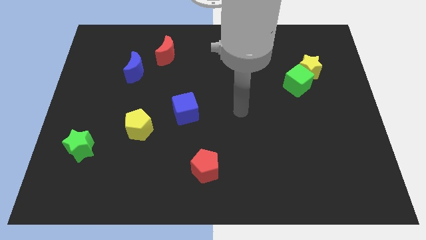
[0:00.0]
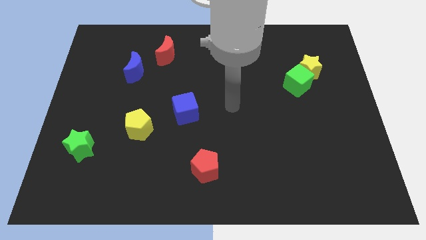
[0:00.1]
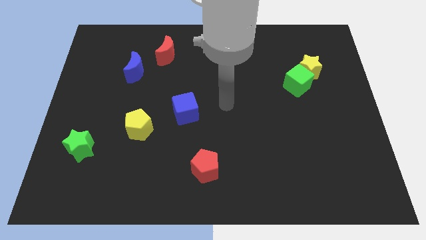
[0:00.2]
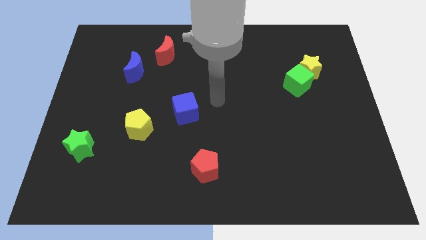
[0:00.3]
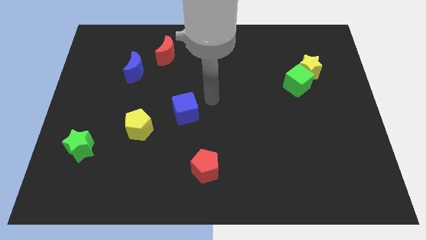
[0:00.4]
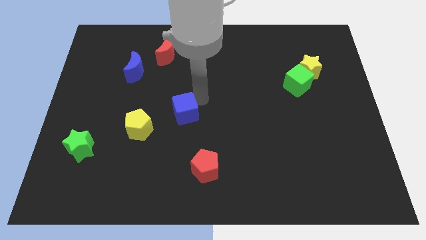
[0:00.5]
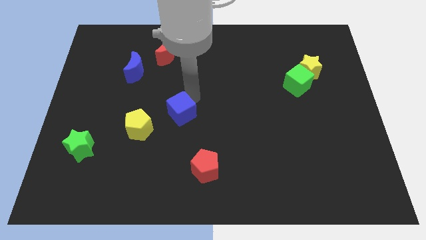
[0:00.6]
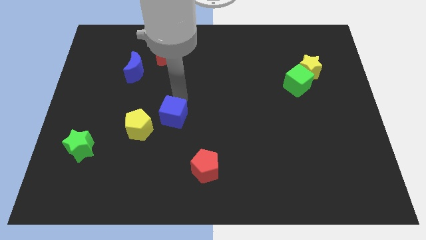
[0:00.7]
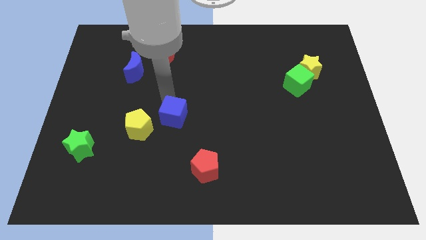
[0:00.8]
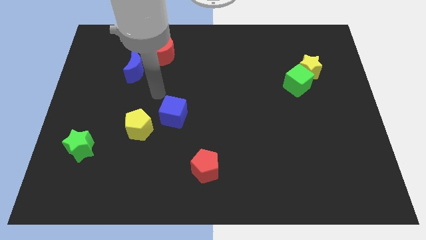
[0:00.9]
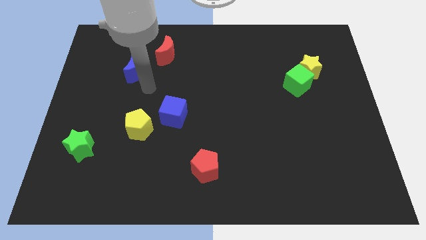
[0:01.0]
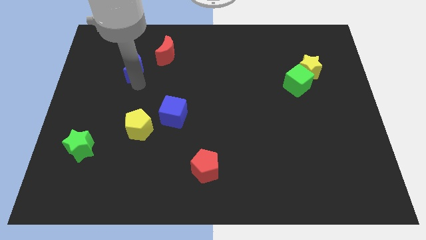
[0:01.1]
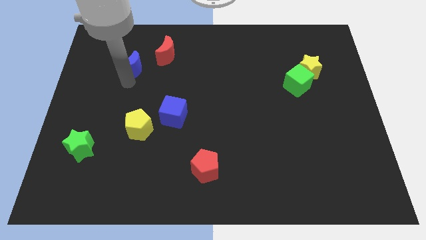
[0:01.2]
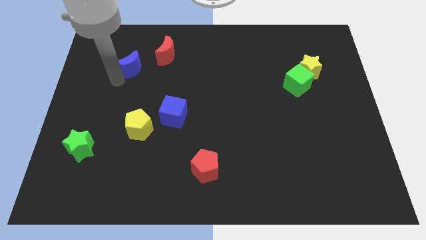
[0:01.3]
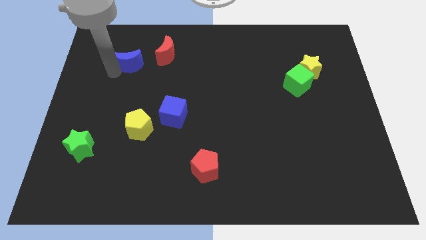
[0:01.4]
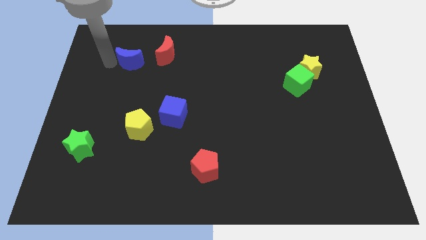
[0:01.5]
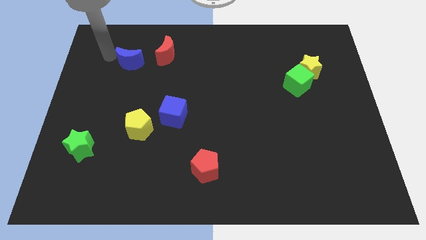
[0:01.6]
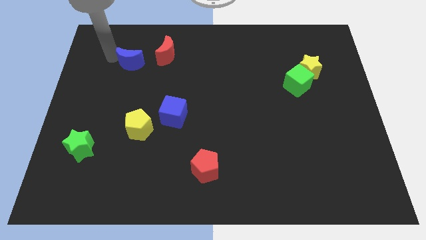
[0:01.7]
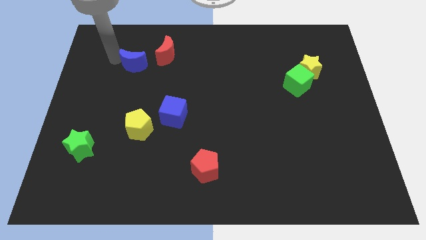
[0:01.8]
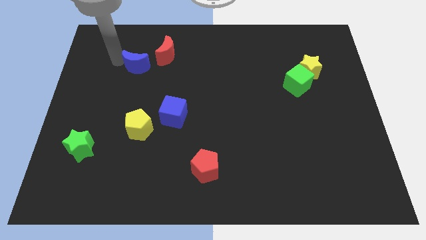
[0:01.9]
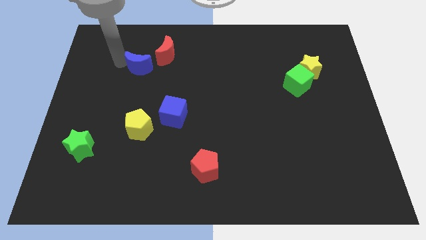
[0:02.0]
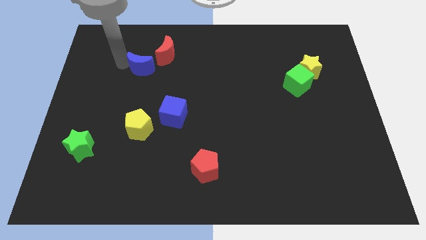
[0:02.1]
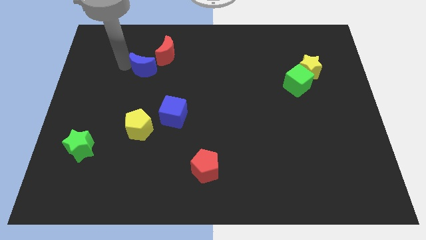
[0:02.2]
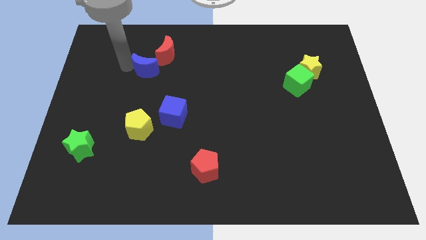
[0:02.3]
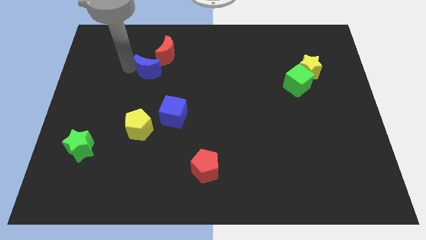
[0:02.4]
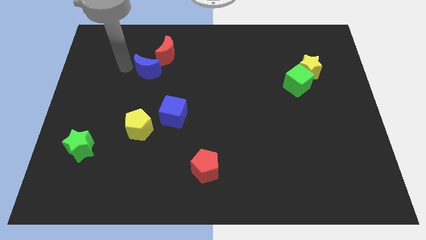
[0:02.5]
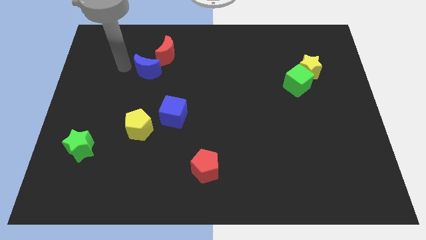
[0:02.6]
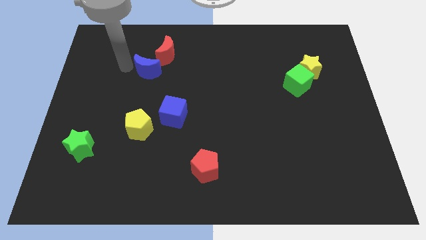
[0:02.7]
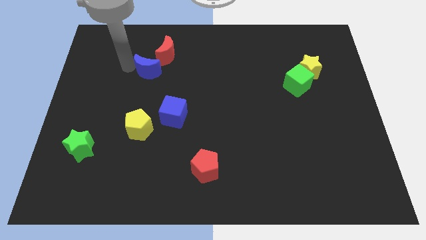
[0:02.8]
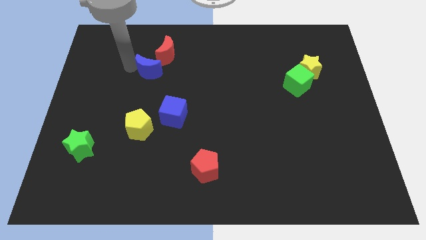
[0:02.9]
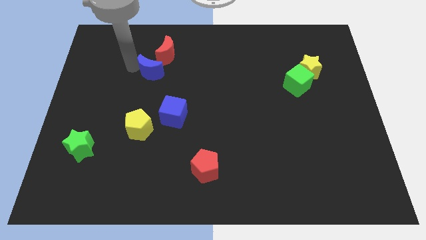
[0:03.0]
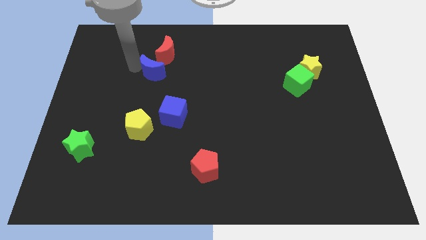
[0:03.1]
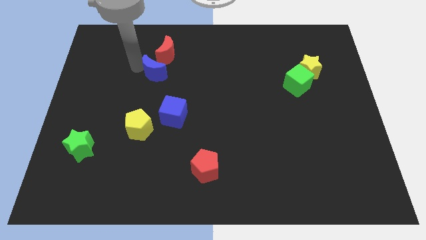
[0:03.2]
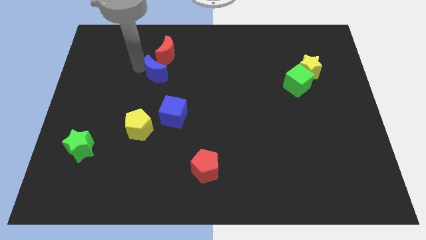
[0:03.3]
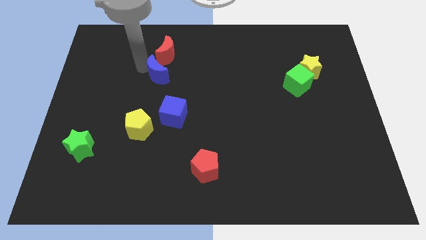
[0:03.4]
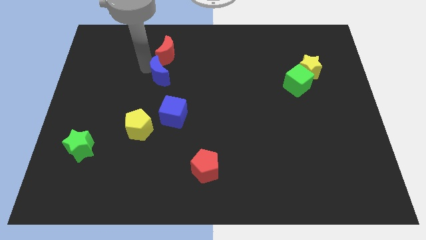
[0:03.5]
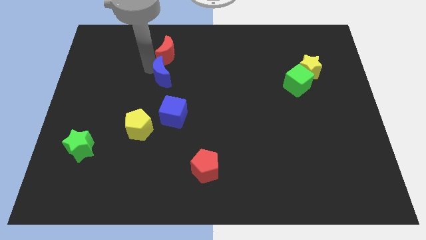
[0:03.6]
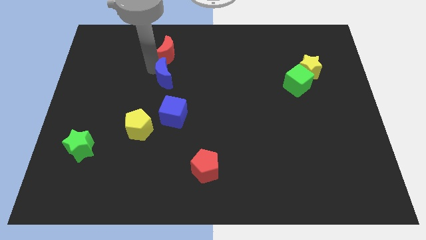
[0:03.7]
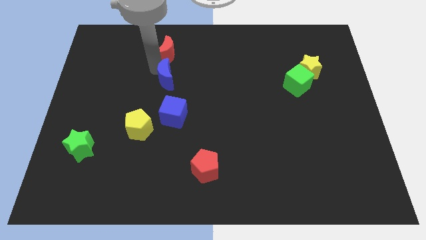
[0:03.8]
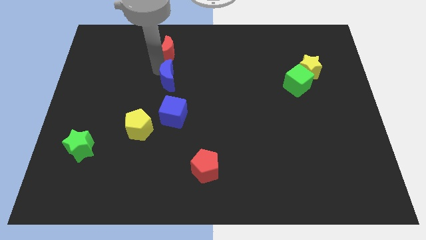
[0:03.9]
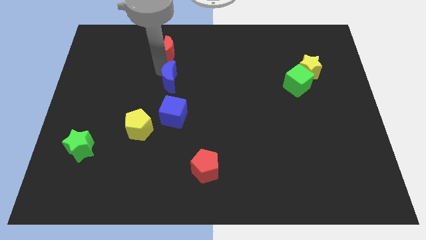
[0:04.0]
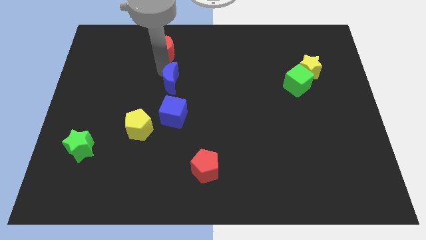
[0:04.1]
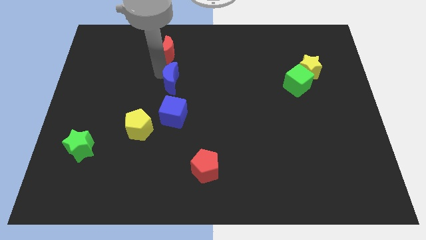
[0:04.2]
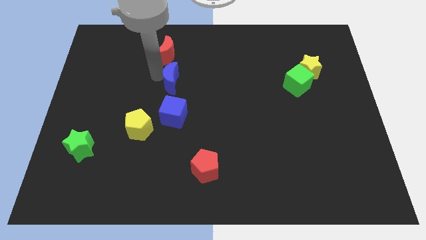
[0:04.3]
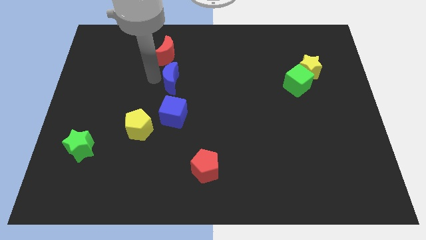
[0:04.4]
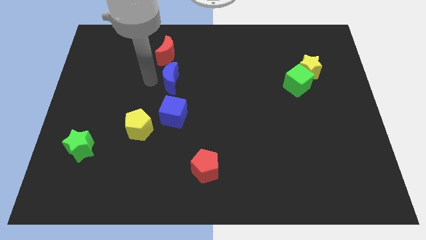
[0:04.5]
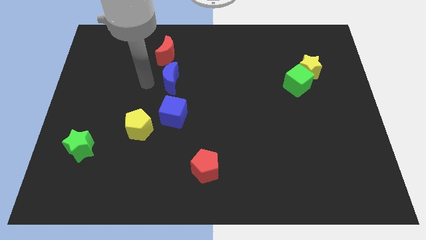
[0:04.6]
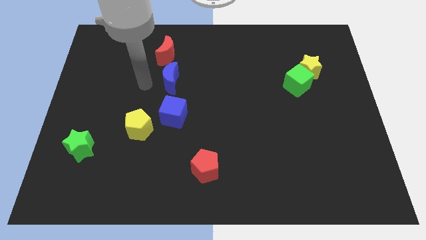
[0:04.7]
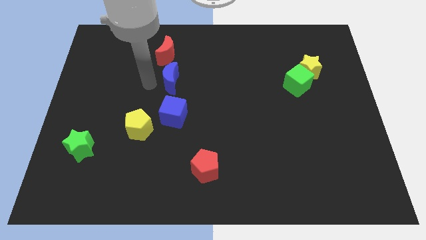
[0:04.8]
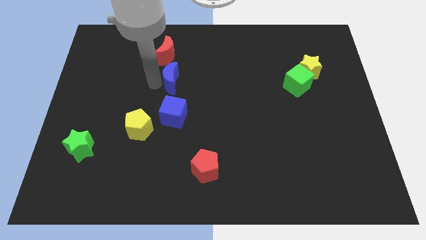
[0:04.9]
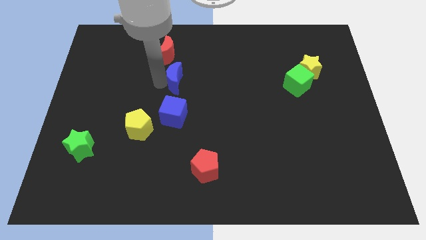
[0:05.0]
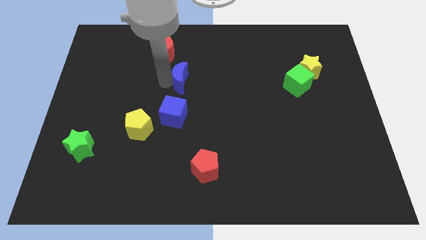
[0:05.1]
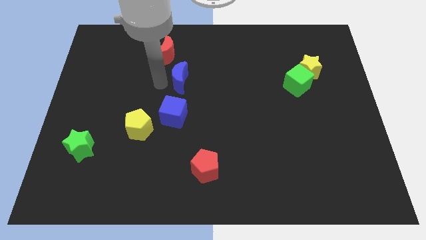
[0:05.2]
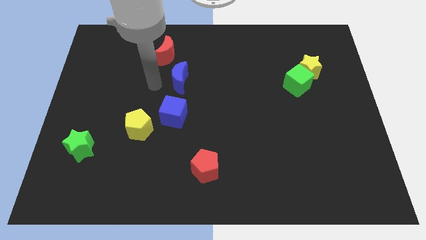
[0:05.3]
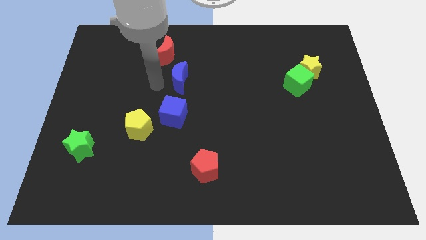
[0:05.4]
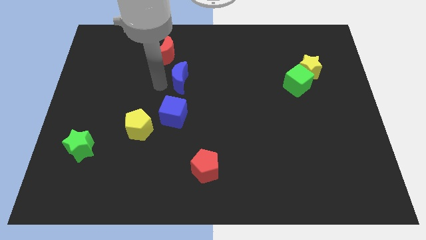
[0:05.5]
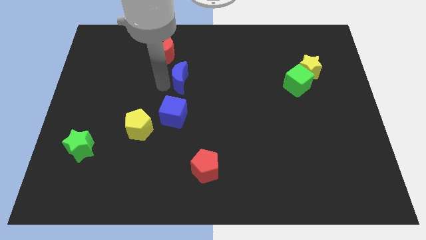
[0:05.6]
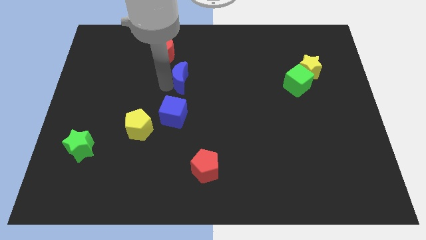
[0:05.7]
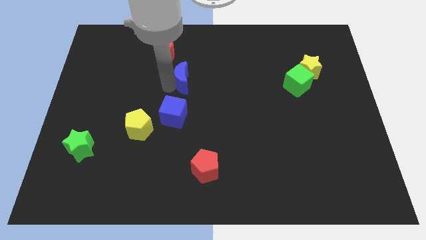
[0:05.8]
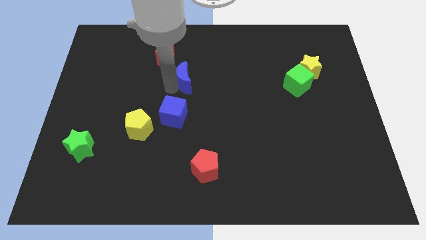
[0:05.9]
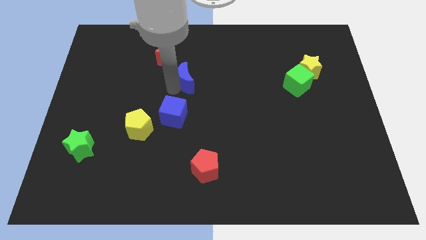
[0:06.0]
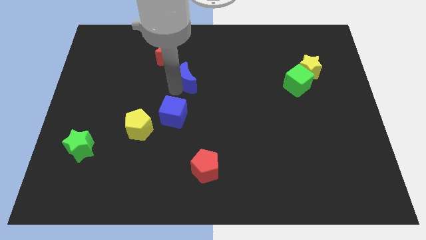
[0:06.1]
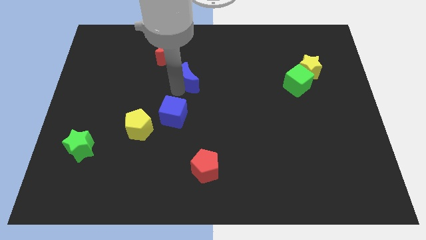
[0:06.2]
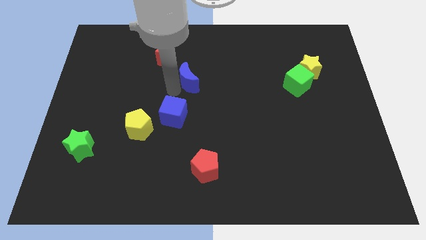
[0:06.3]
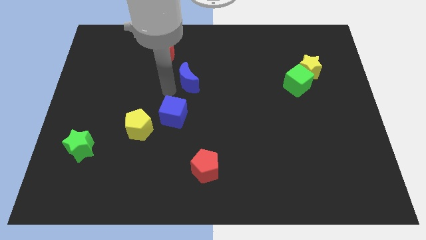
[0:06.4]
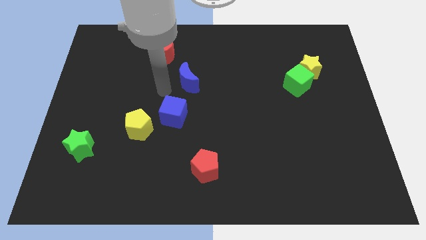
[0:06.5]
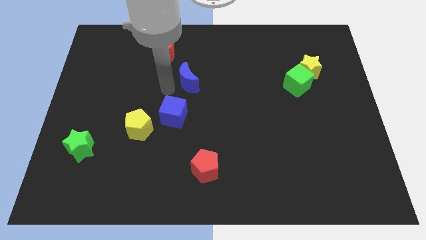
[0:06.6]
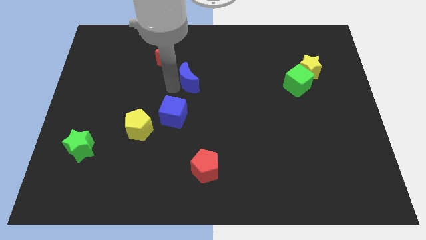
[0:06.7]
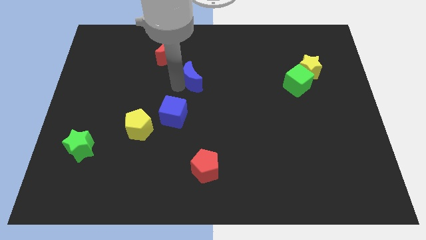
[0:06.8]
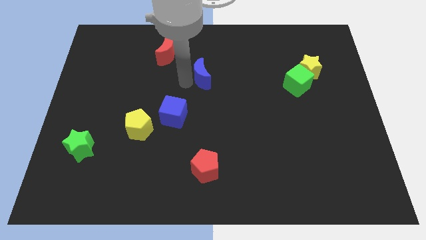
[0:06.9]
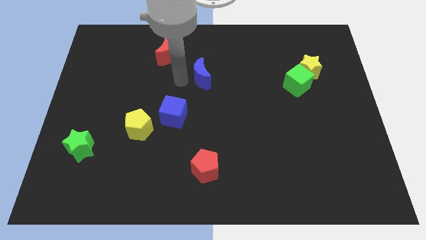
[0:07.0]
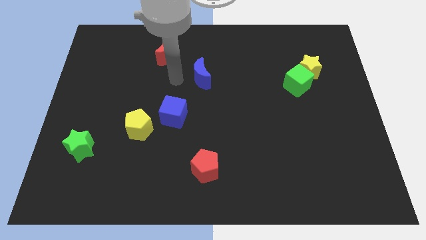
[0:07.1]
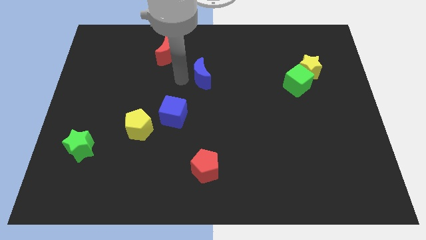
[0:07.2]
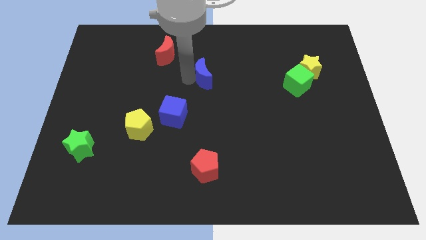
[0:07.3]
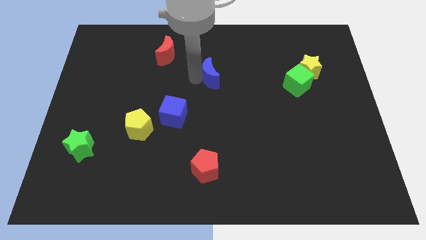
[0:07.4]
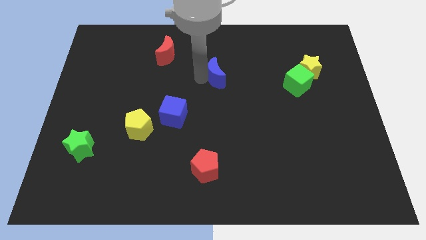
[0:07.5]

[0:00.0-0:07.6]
push the blue moon right

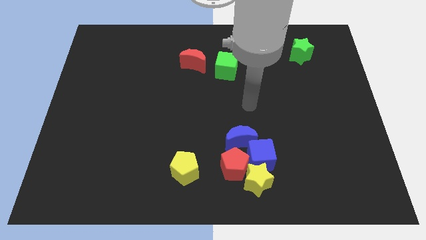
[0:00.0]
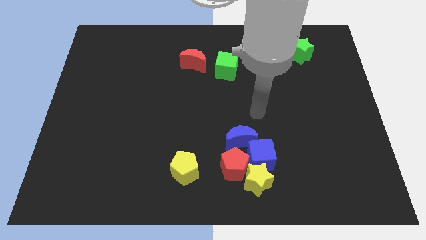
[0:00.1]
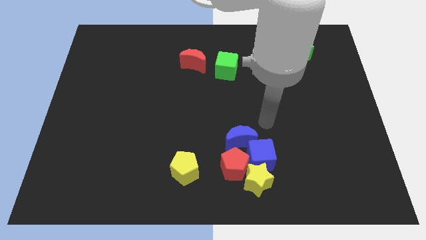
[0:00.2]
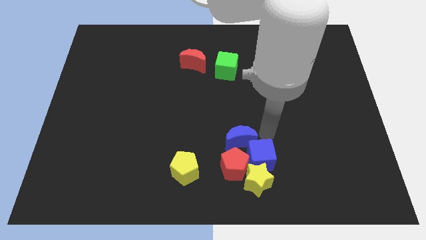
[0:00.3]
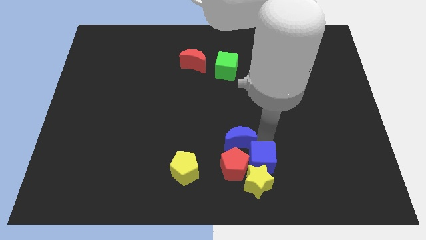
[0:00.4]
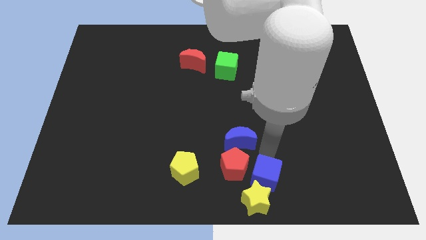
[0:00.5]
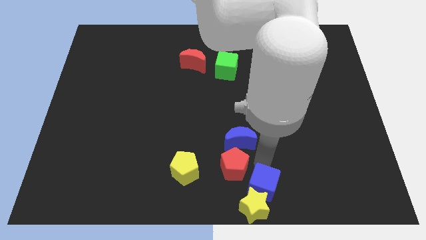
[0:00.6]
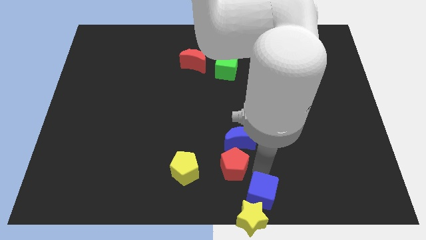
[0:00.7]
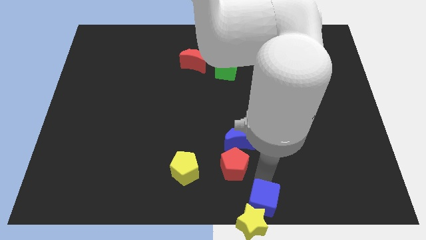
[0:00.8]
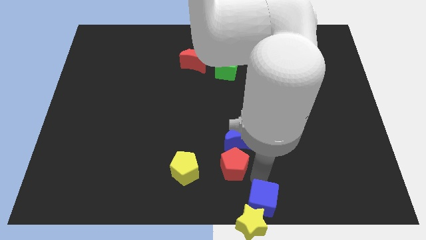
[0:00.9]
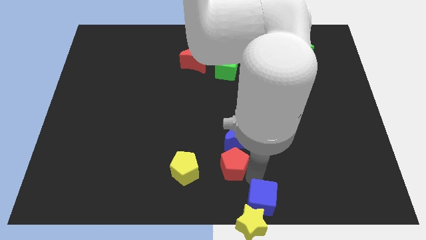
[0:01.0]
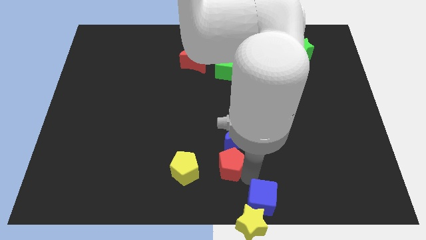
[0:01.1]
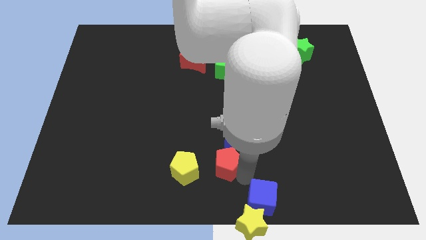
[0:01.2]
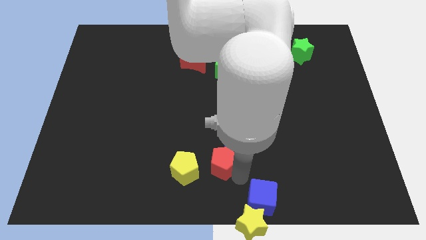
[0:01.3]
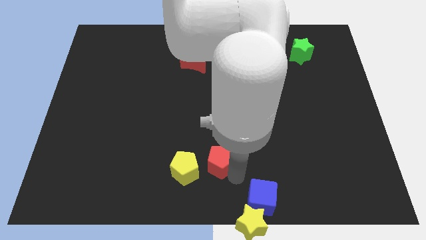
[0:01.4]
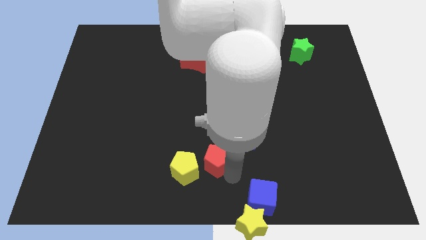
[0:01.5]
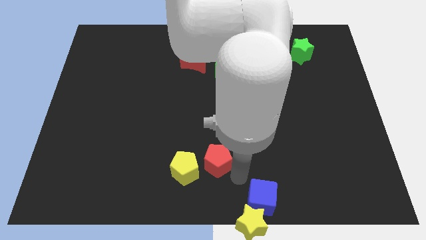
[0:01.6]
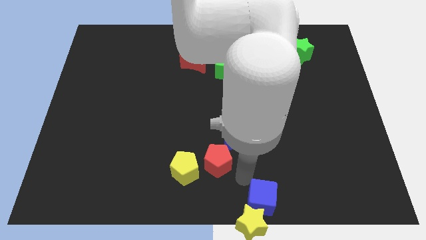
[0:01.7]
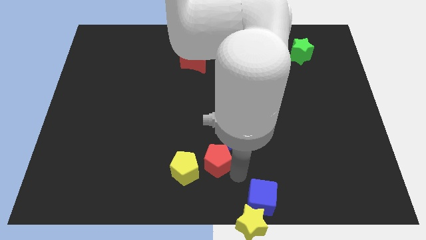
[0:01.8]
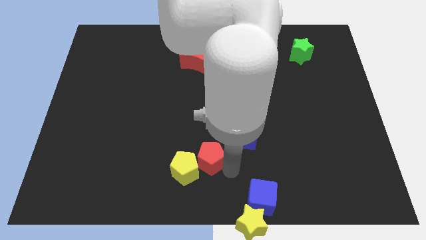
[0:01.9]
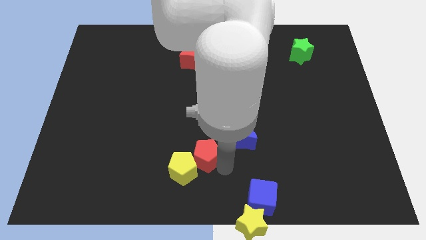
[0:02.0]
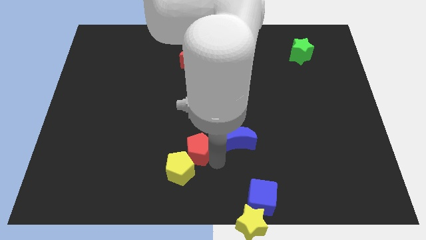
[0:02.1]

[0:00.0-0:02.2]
slightly push the red pentagon left
